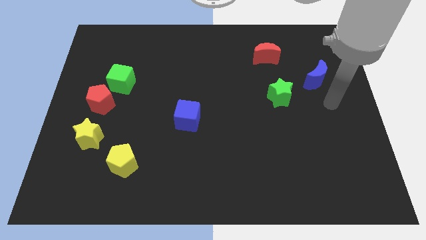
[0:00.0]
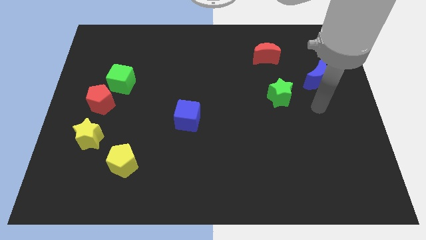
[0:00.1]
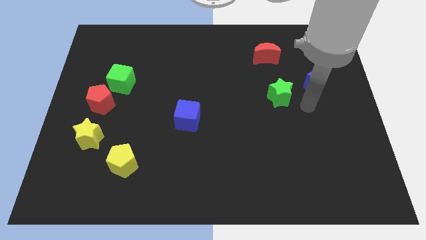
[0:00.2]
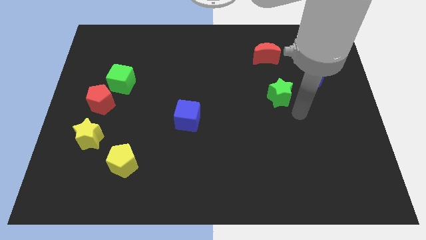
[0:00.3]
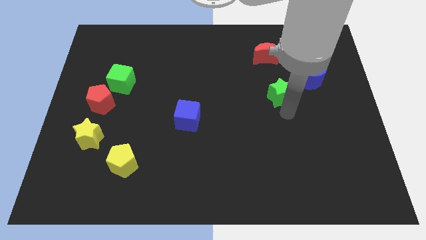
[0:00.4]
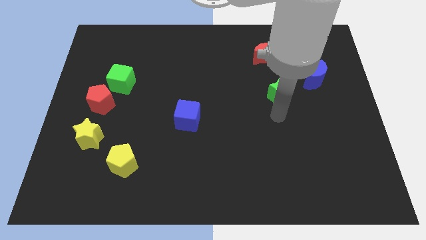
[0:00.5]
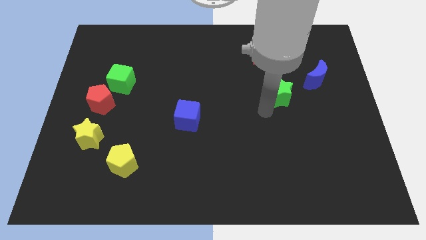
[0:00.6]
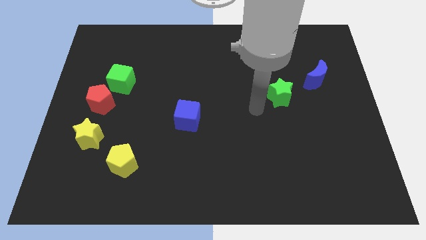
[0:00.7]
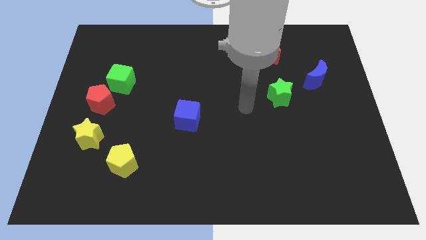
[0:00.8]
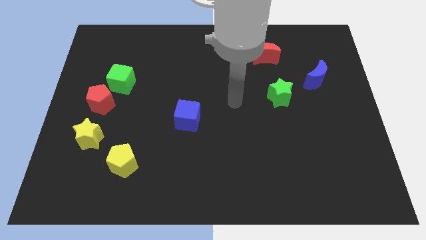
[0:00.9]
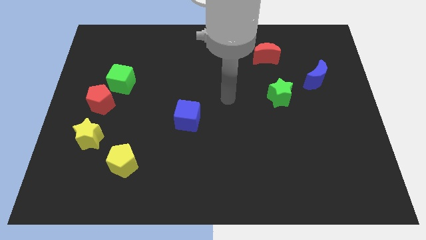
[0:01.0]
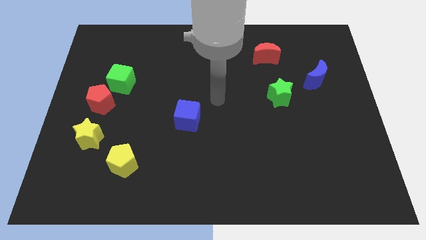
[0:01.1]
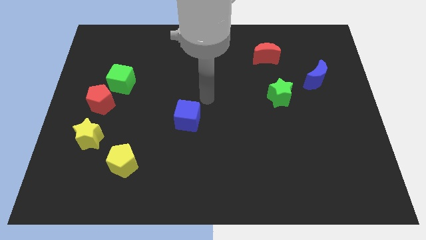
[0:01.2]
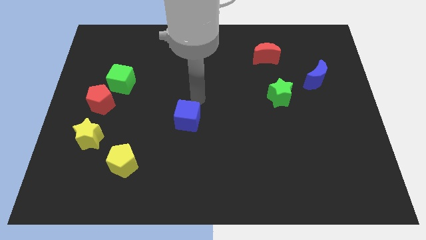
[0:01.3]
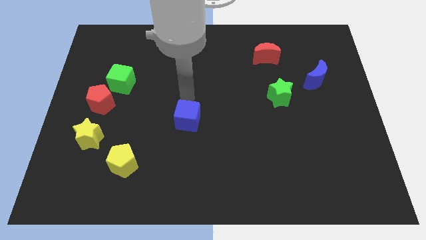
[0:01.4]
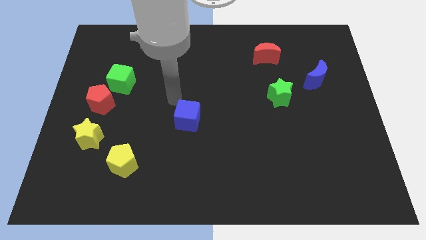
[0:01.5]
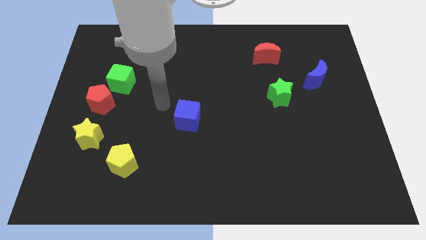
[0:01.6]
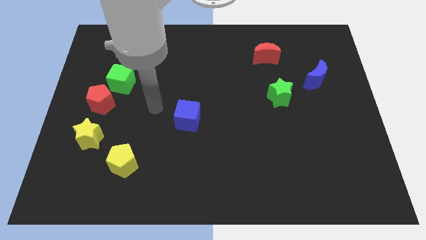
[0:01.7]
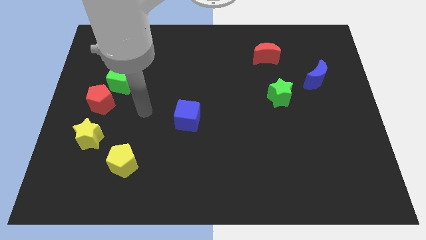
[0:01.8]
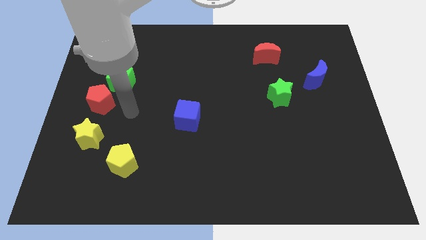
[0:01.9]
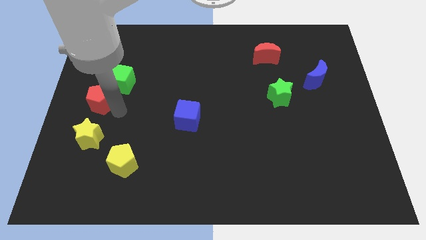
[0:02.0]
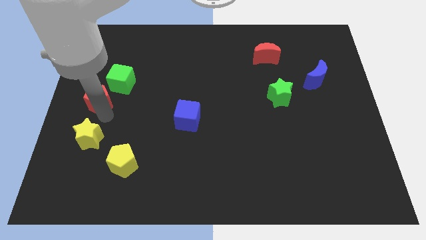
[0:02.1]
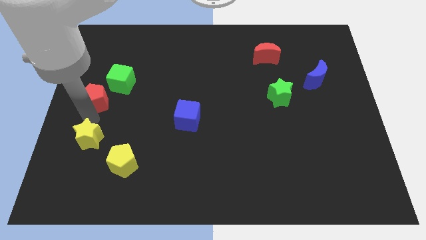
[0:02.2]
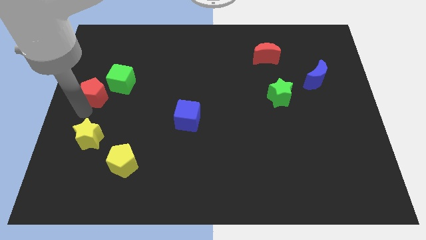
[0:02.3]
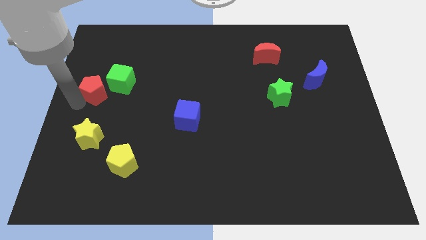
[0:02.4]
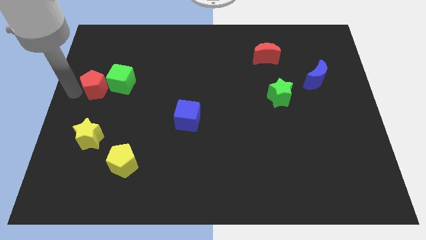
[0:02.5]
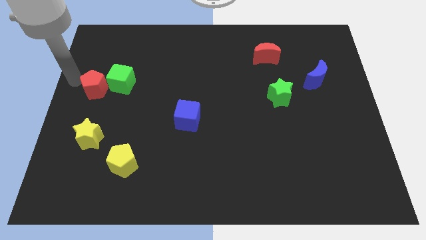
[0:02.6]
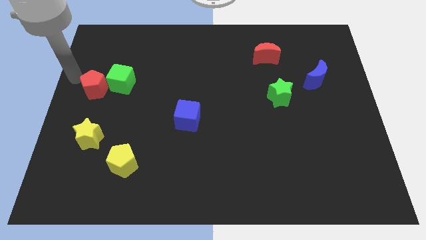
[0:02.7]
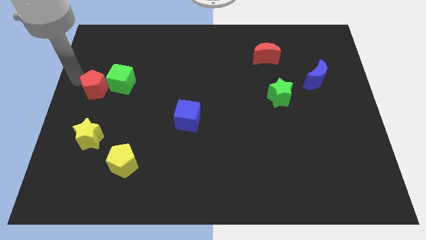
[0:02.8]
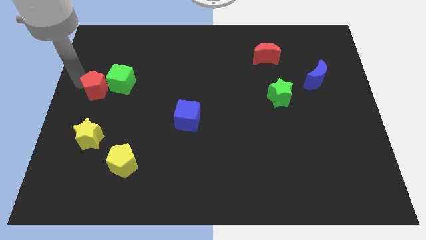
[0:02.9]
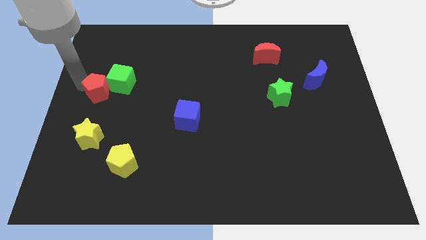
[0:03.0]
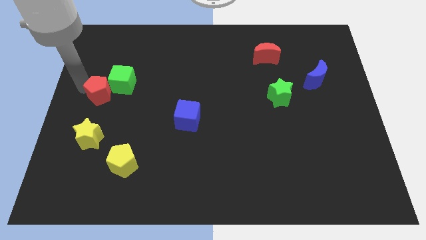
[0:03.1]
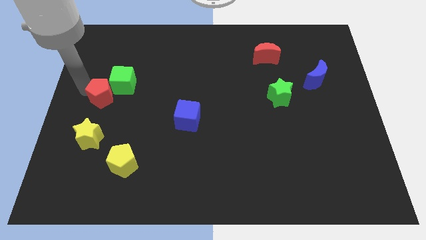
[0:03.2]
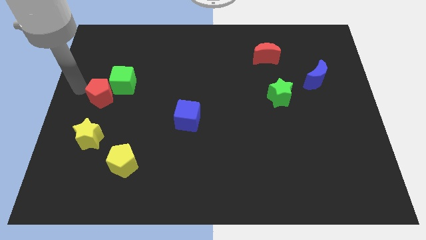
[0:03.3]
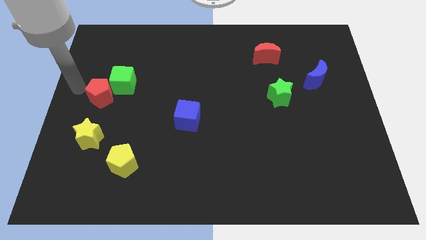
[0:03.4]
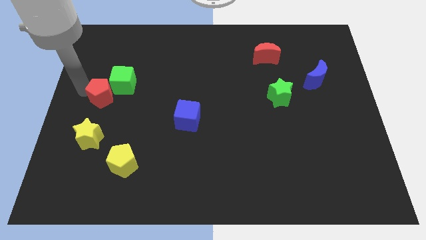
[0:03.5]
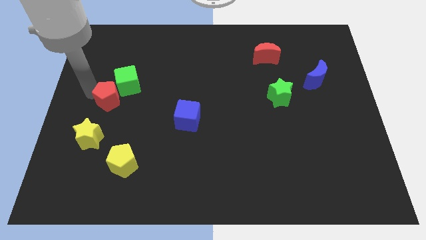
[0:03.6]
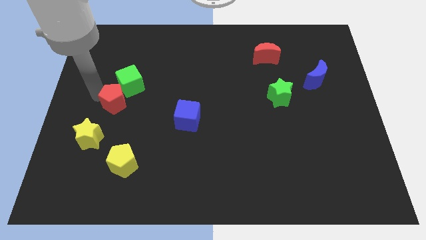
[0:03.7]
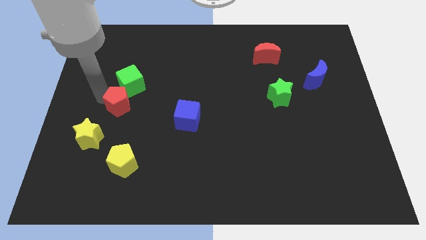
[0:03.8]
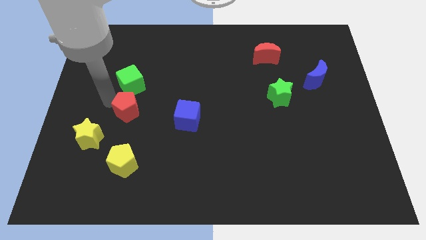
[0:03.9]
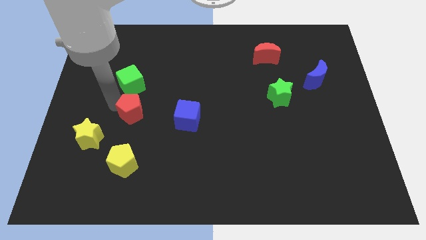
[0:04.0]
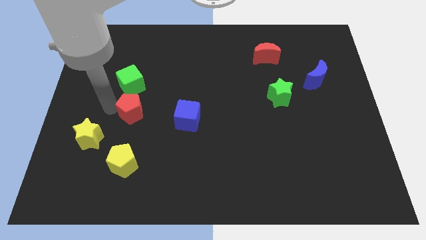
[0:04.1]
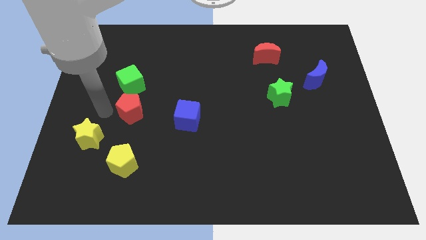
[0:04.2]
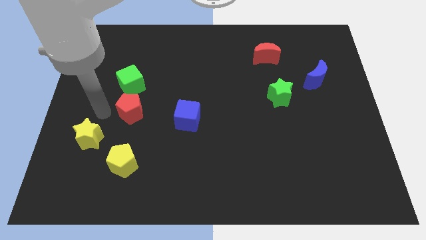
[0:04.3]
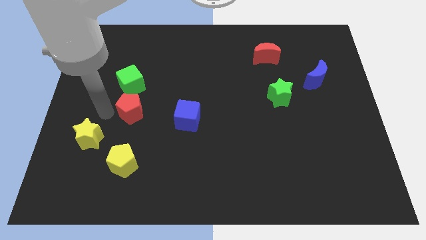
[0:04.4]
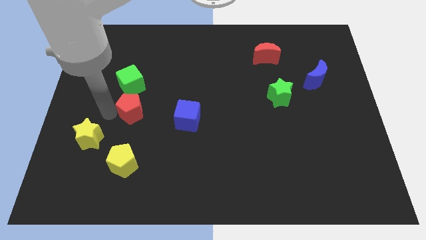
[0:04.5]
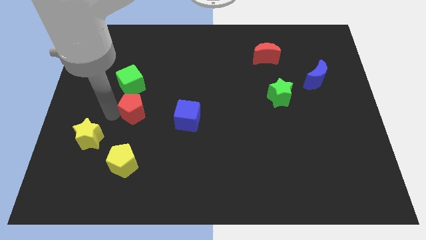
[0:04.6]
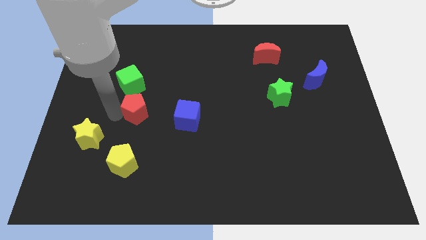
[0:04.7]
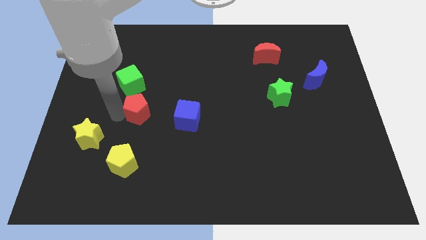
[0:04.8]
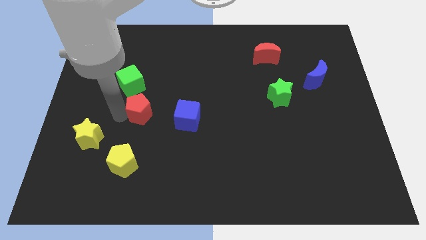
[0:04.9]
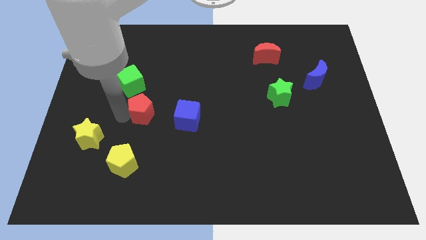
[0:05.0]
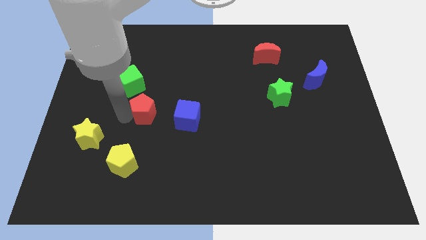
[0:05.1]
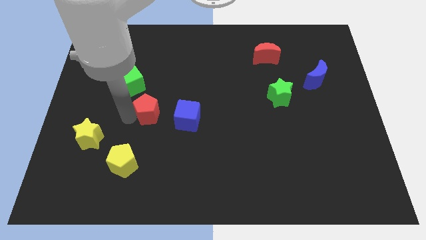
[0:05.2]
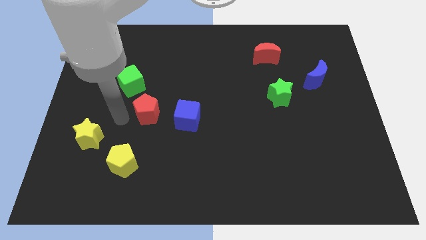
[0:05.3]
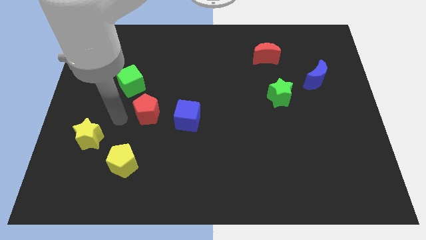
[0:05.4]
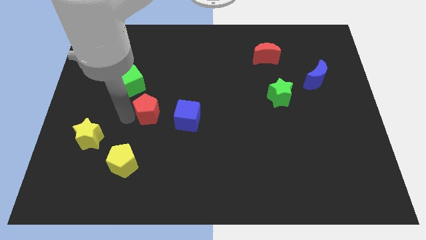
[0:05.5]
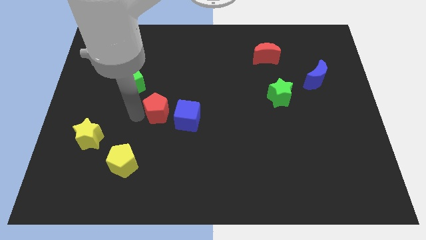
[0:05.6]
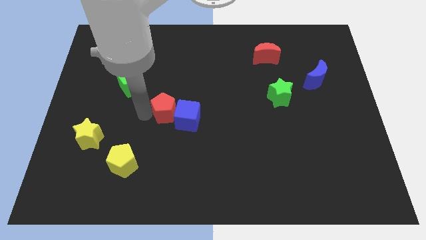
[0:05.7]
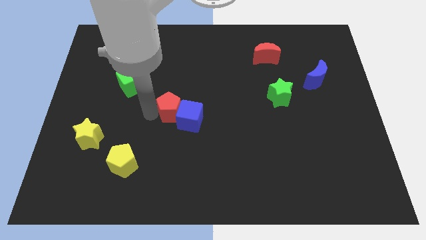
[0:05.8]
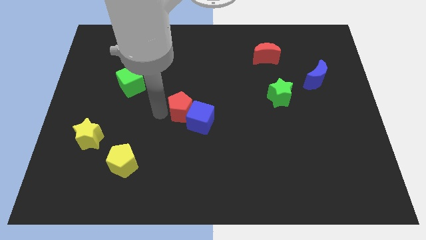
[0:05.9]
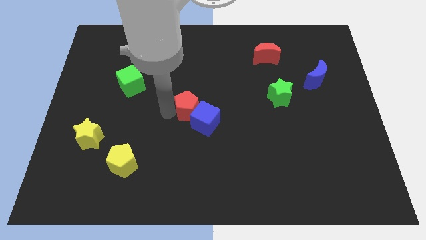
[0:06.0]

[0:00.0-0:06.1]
move the red pentagon to the right

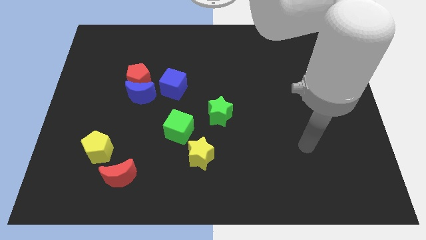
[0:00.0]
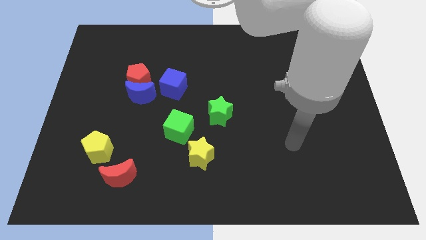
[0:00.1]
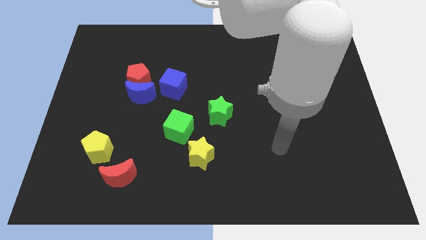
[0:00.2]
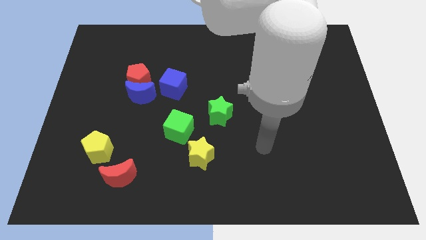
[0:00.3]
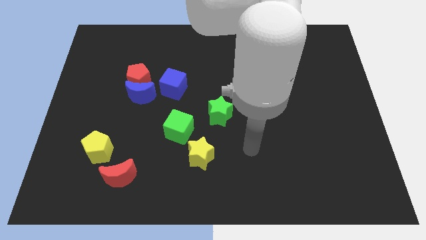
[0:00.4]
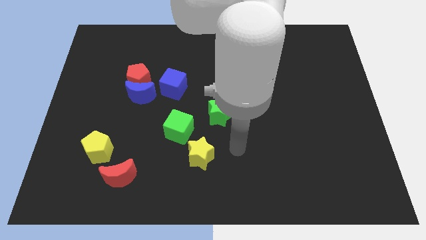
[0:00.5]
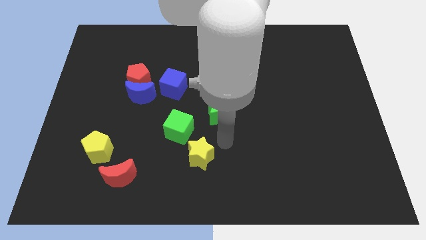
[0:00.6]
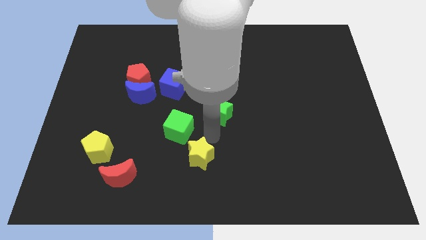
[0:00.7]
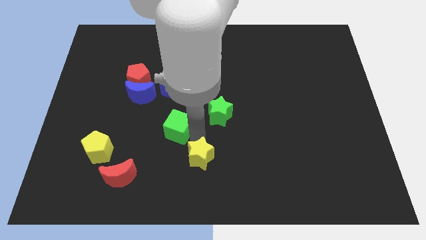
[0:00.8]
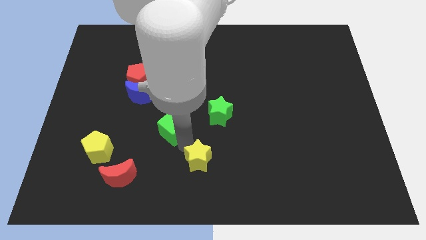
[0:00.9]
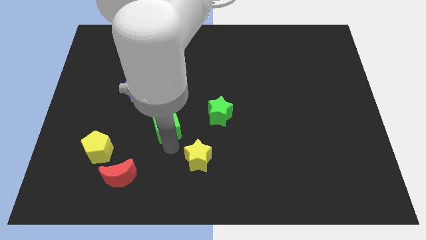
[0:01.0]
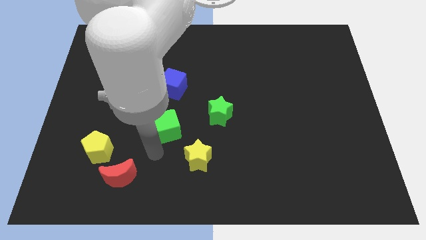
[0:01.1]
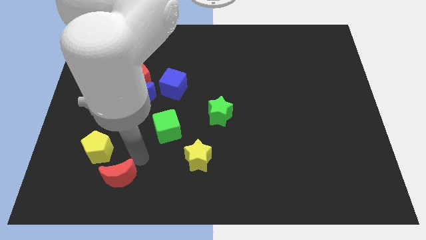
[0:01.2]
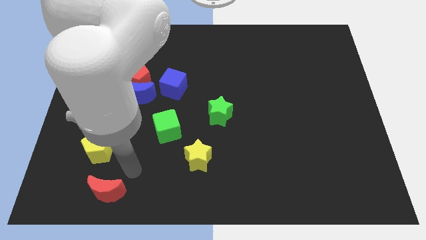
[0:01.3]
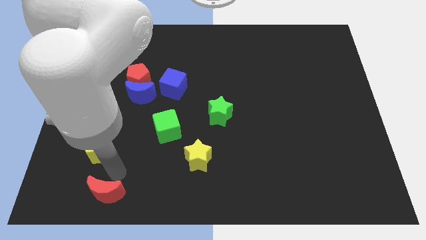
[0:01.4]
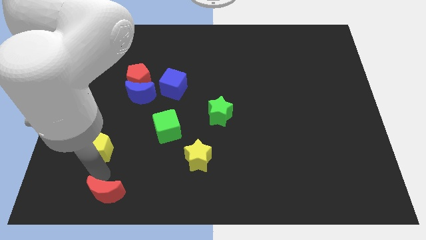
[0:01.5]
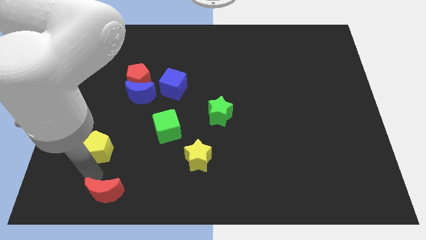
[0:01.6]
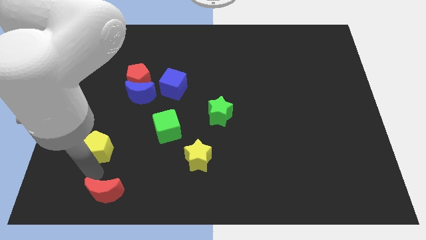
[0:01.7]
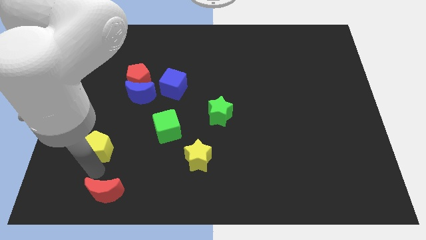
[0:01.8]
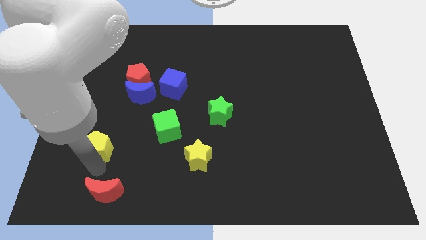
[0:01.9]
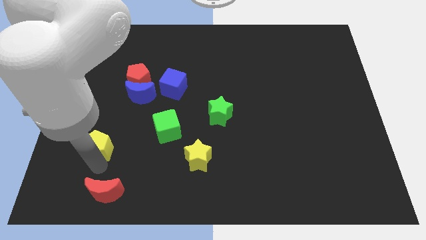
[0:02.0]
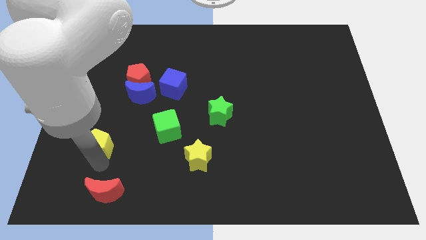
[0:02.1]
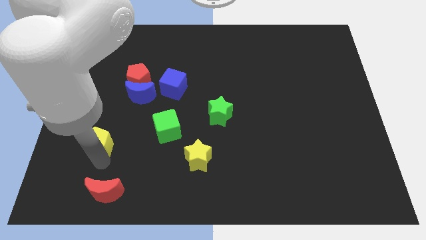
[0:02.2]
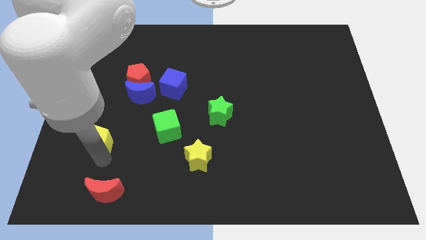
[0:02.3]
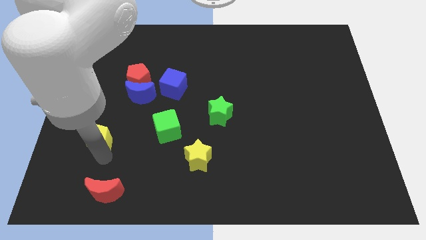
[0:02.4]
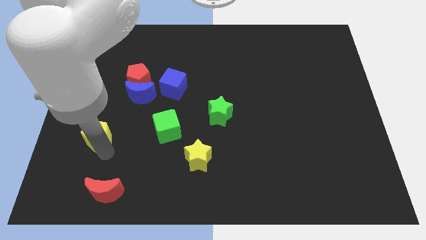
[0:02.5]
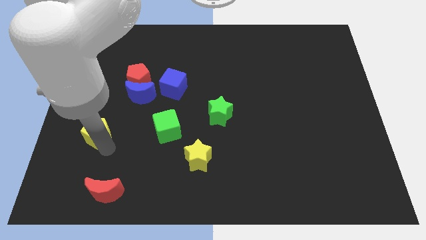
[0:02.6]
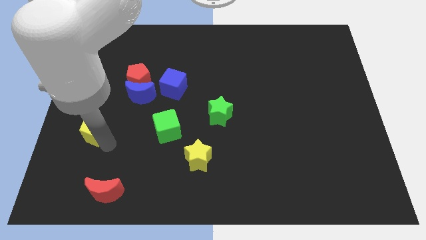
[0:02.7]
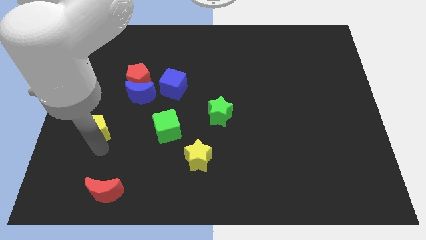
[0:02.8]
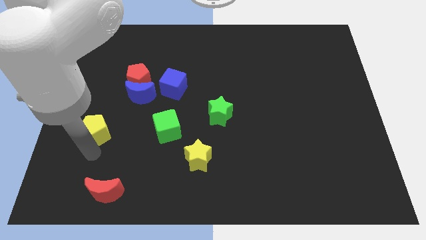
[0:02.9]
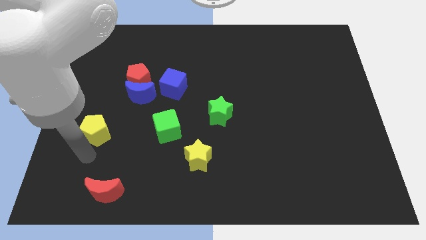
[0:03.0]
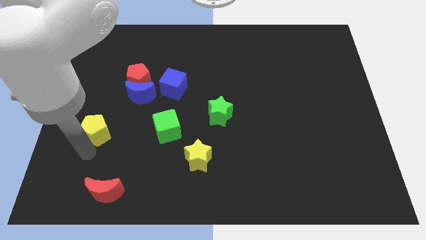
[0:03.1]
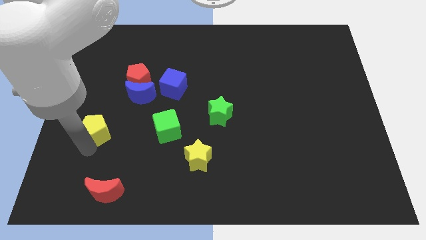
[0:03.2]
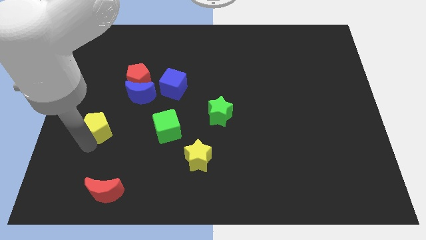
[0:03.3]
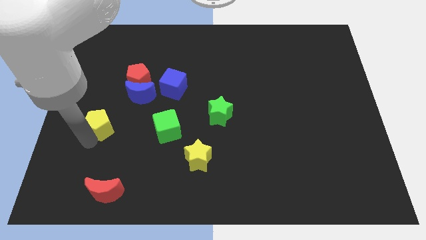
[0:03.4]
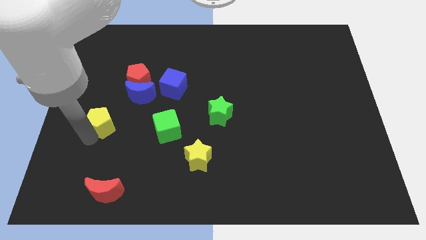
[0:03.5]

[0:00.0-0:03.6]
push the yellow pentagon upwards a little
